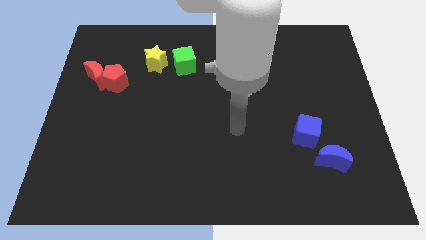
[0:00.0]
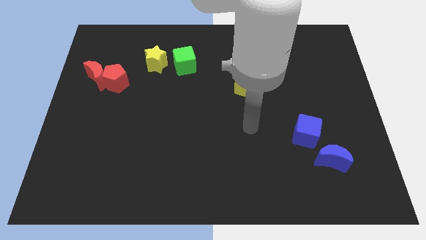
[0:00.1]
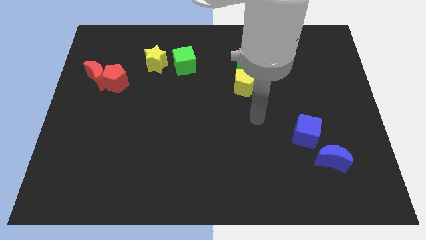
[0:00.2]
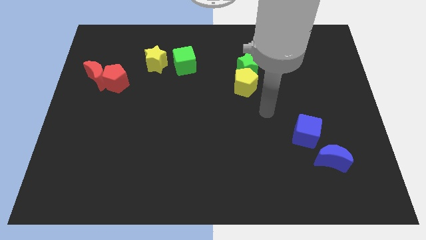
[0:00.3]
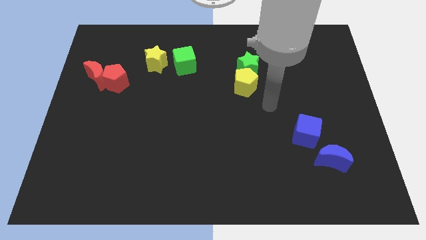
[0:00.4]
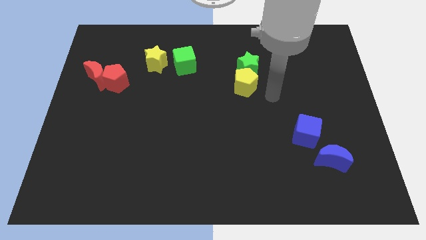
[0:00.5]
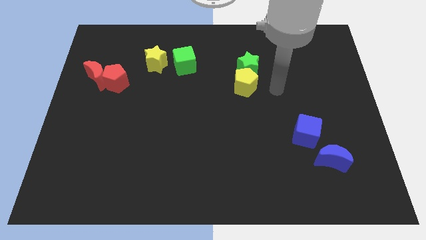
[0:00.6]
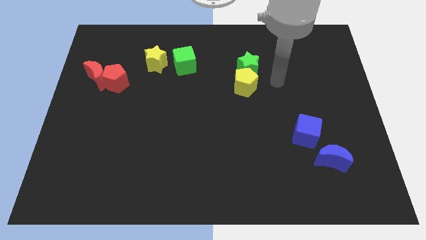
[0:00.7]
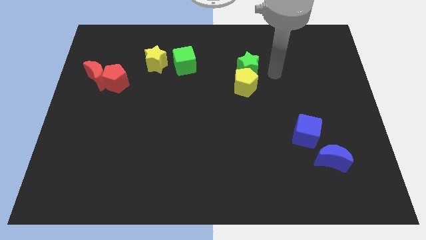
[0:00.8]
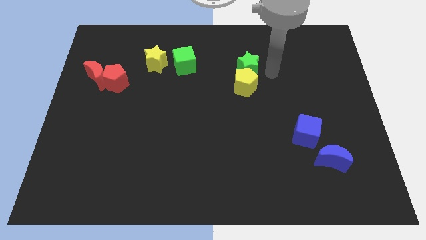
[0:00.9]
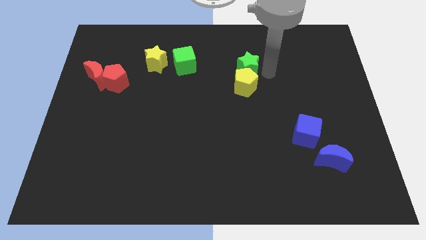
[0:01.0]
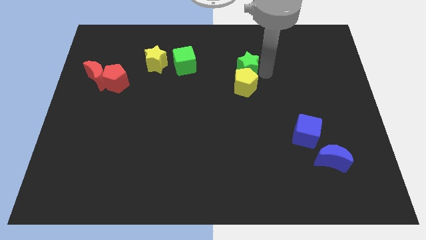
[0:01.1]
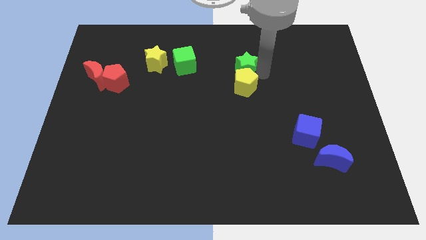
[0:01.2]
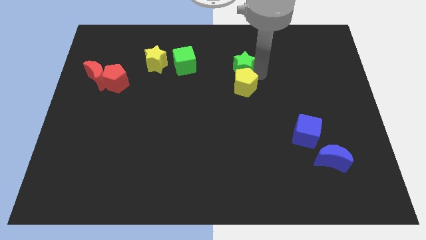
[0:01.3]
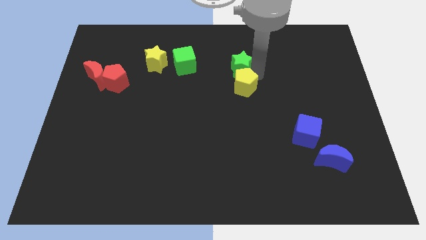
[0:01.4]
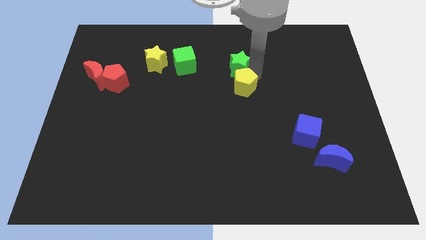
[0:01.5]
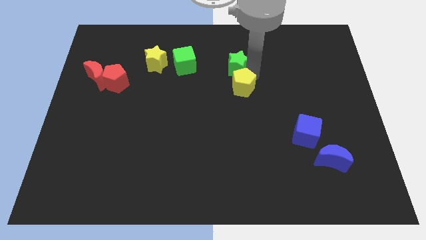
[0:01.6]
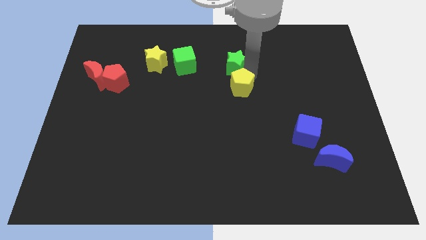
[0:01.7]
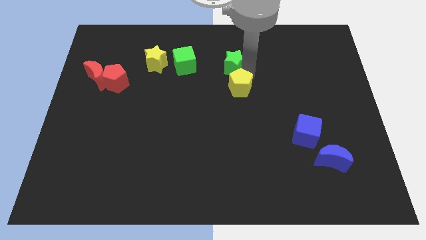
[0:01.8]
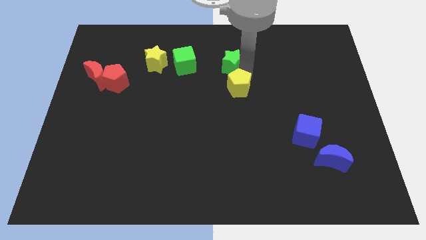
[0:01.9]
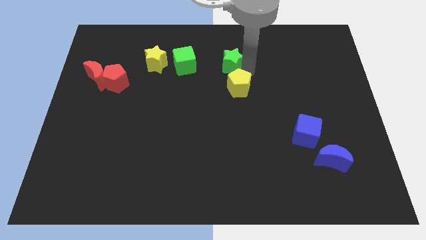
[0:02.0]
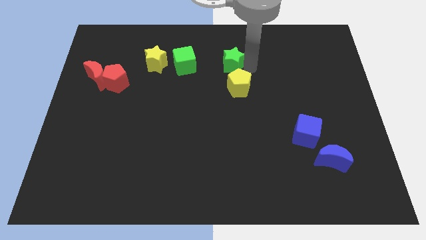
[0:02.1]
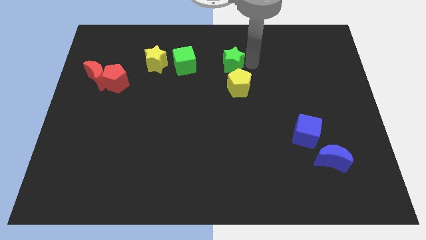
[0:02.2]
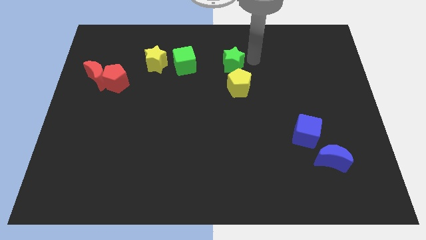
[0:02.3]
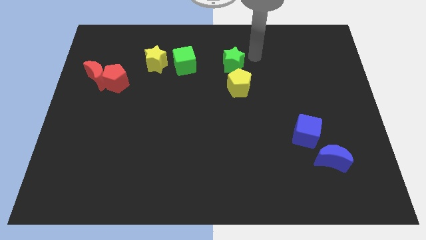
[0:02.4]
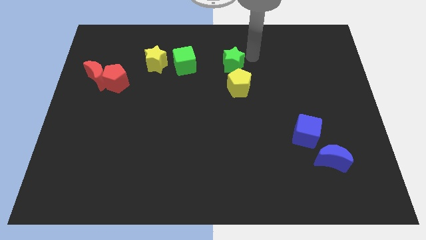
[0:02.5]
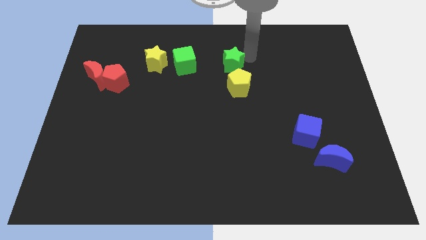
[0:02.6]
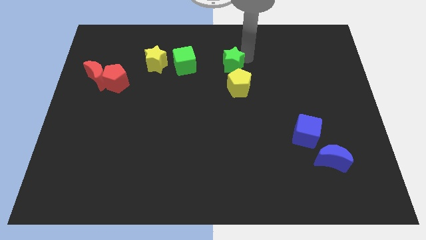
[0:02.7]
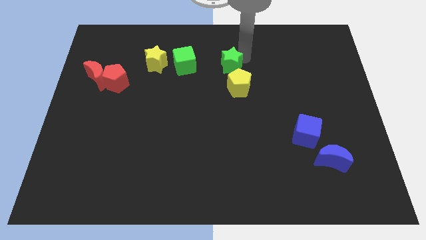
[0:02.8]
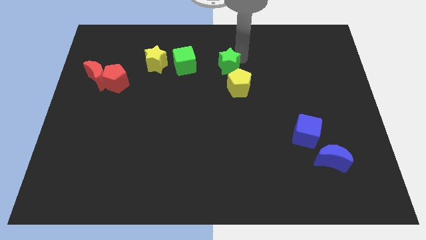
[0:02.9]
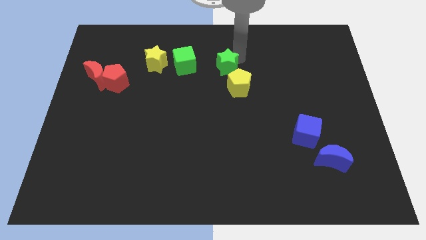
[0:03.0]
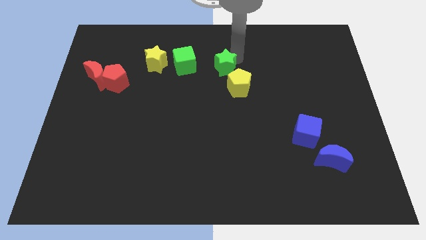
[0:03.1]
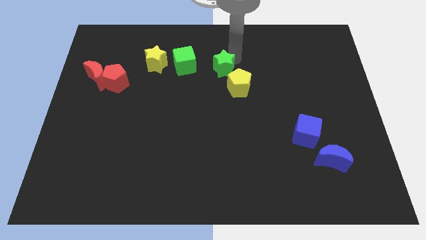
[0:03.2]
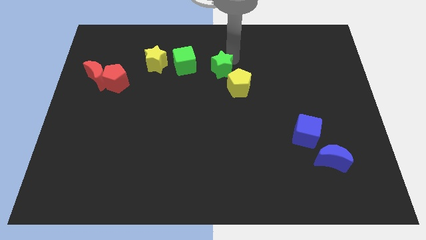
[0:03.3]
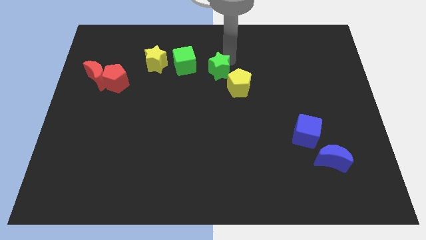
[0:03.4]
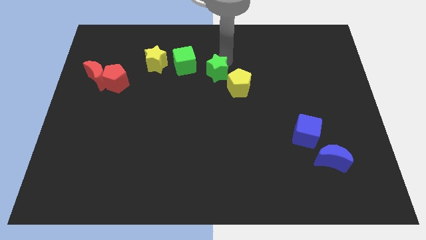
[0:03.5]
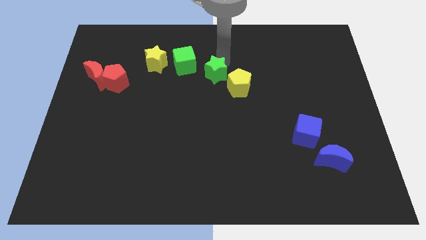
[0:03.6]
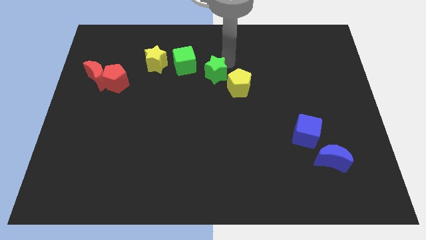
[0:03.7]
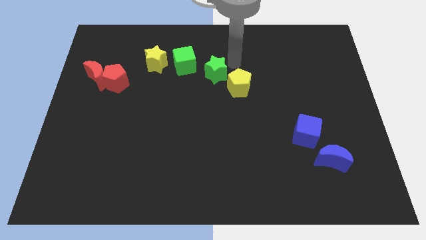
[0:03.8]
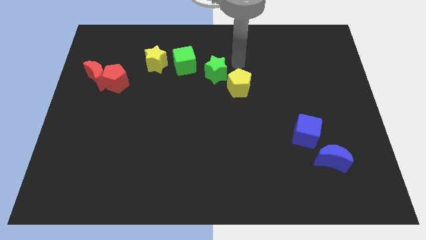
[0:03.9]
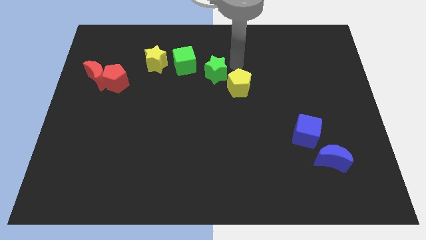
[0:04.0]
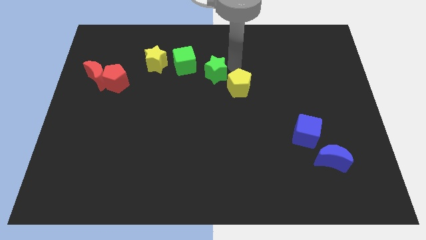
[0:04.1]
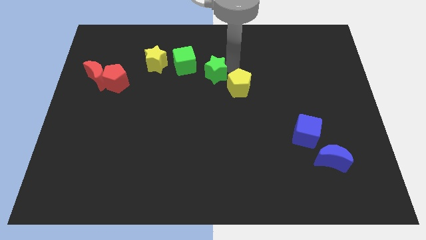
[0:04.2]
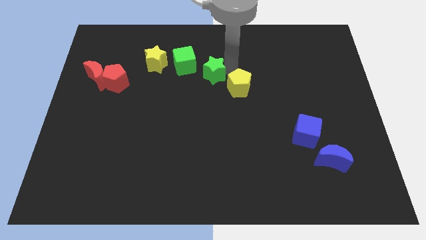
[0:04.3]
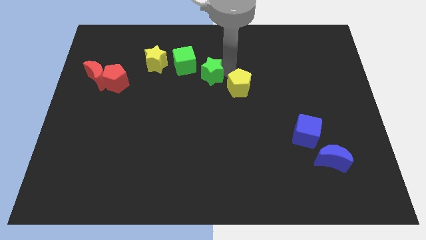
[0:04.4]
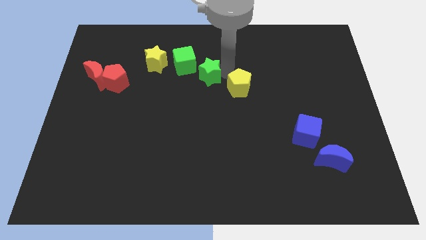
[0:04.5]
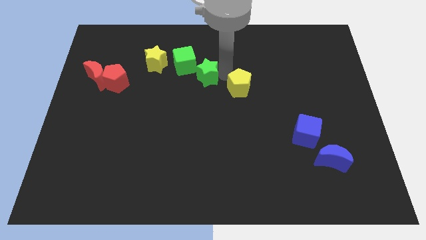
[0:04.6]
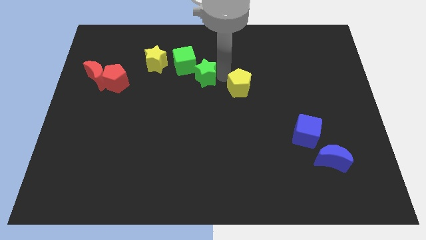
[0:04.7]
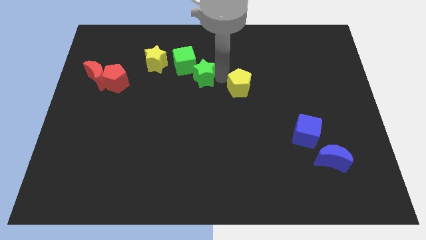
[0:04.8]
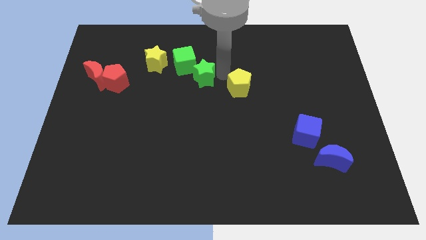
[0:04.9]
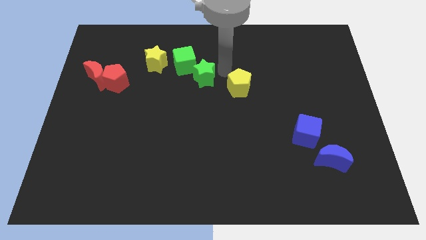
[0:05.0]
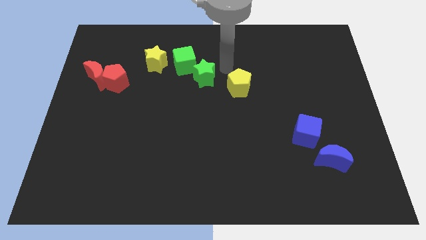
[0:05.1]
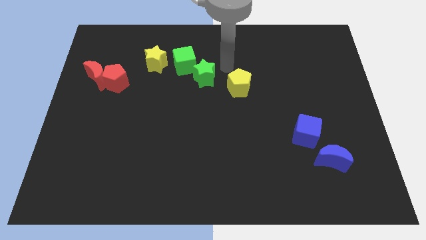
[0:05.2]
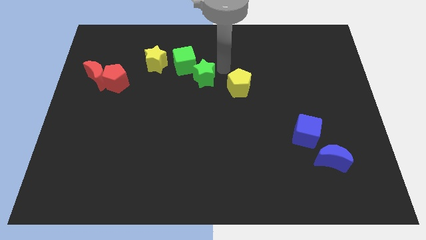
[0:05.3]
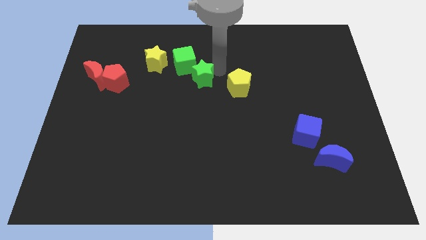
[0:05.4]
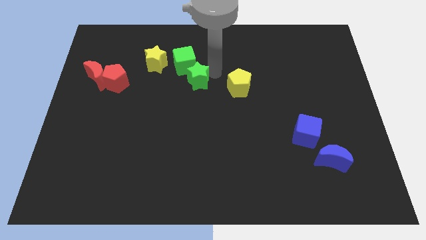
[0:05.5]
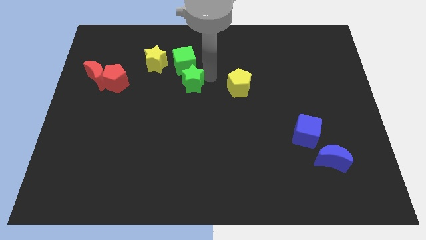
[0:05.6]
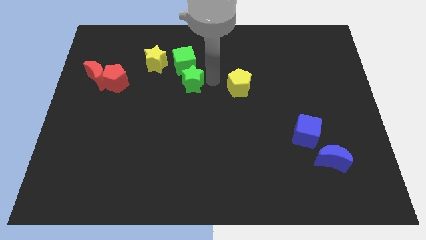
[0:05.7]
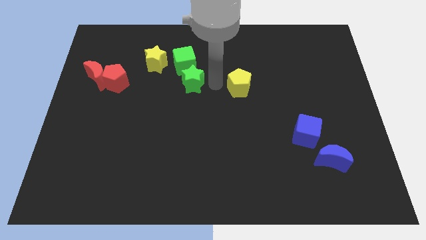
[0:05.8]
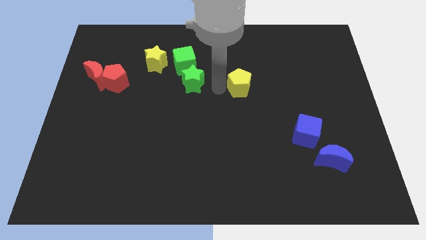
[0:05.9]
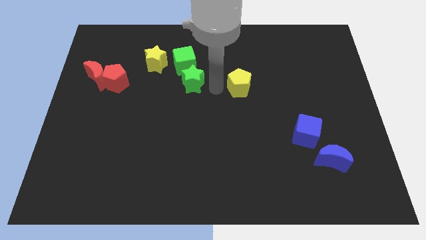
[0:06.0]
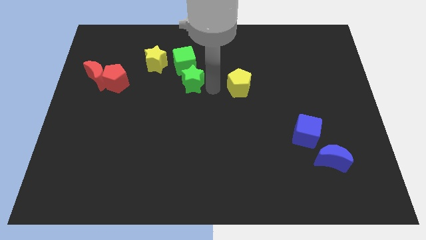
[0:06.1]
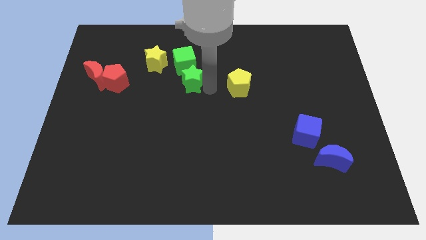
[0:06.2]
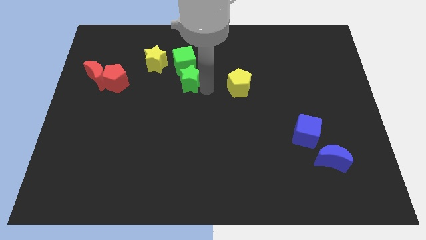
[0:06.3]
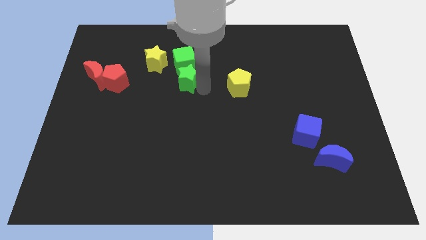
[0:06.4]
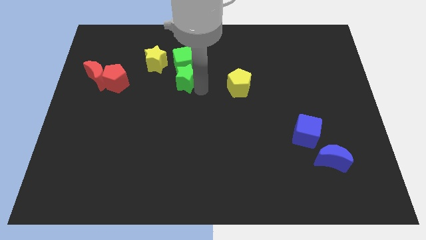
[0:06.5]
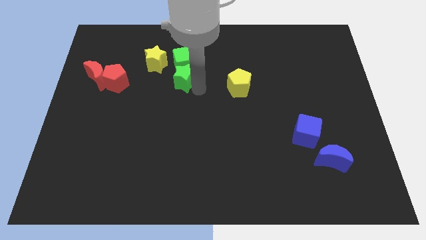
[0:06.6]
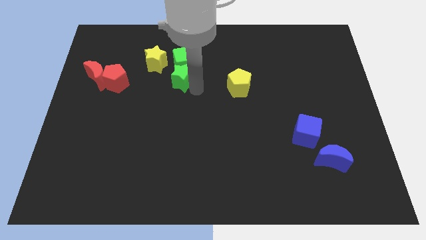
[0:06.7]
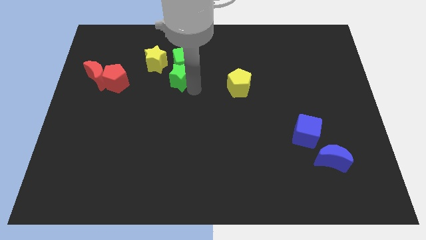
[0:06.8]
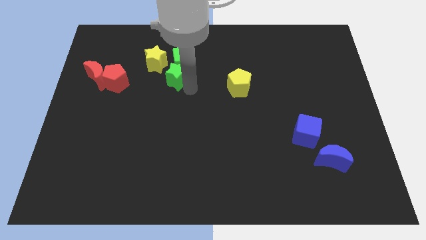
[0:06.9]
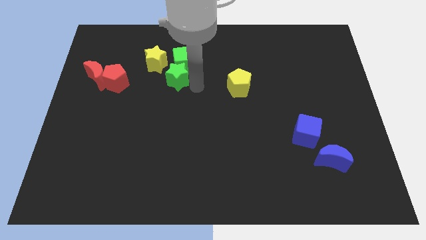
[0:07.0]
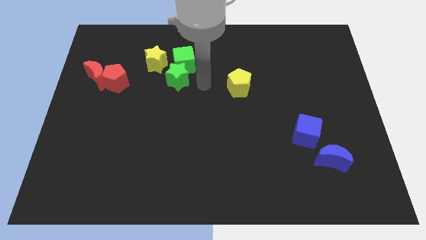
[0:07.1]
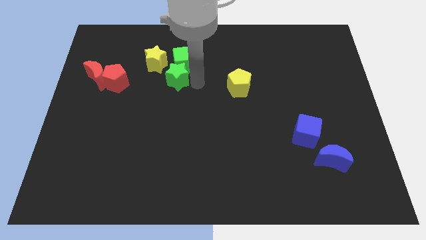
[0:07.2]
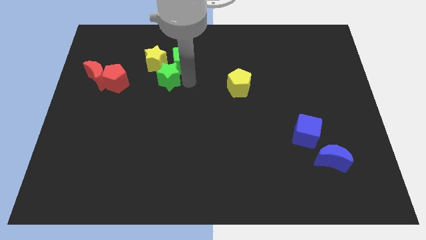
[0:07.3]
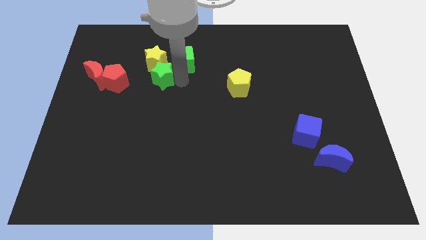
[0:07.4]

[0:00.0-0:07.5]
slide the green star to the left

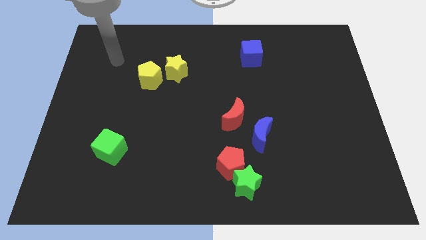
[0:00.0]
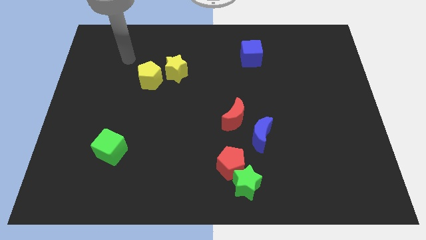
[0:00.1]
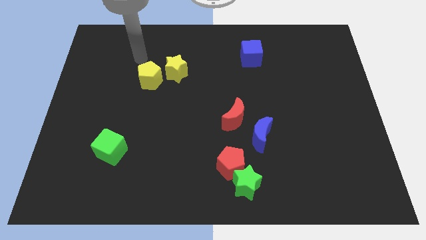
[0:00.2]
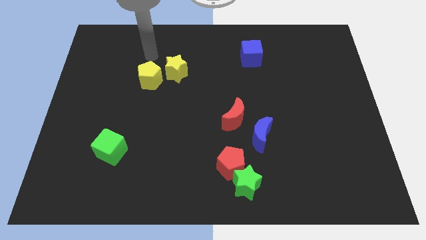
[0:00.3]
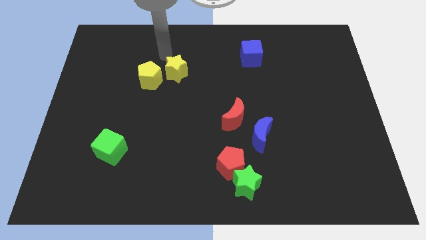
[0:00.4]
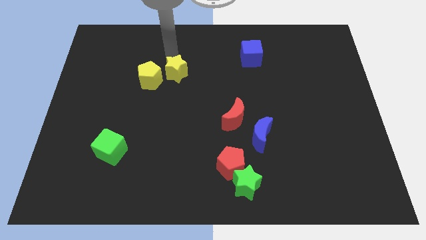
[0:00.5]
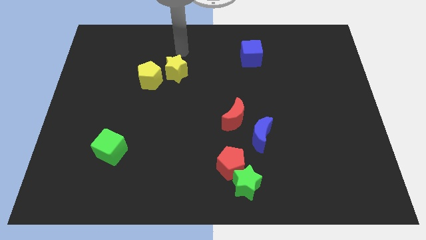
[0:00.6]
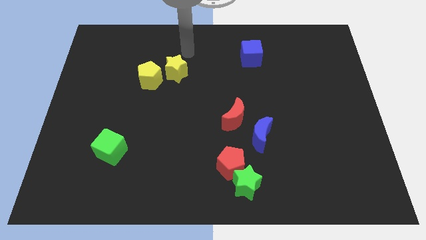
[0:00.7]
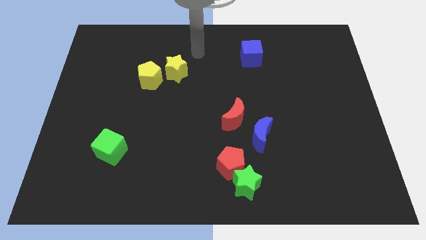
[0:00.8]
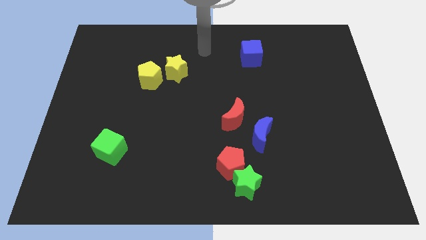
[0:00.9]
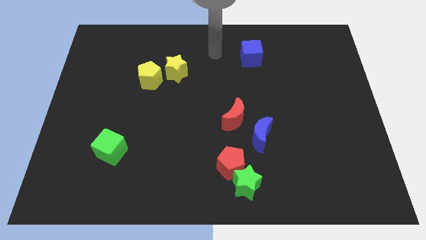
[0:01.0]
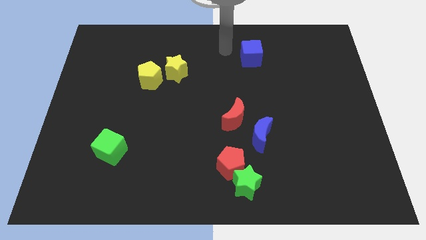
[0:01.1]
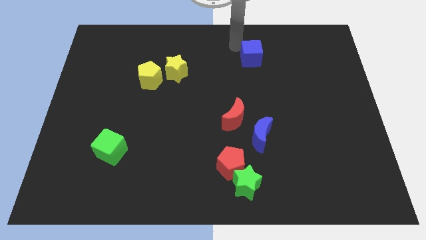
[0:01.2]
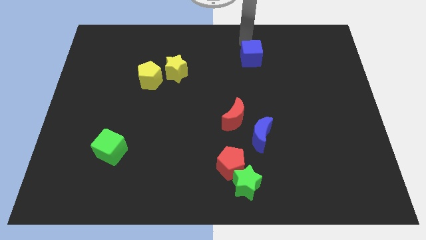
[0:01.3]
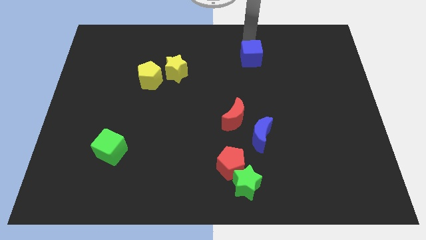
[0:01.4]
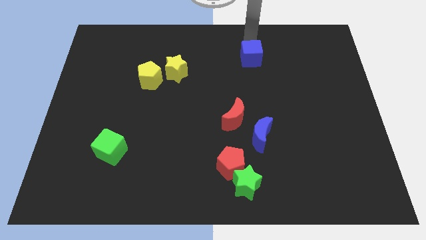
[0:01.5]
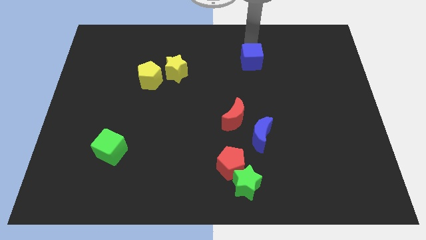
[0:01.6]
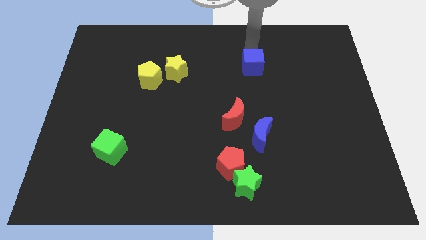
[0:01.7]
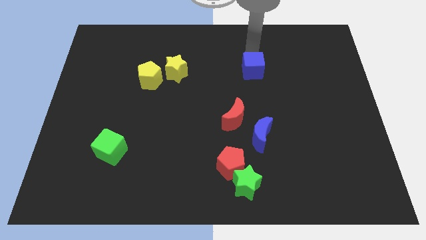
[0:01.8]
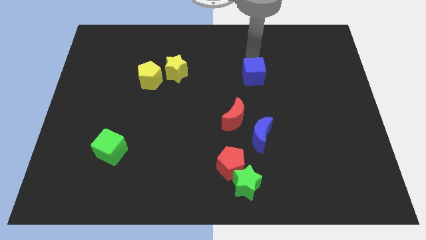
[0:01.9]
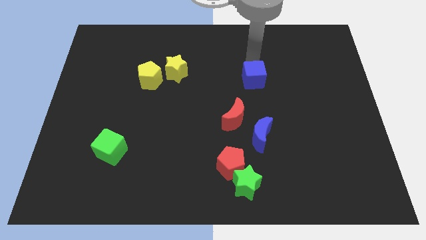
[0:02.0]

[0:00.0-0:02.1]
move the blue cube slightly downwards
